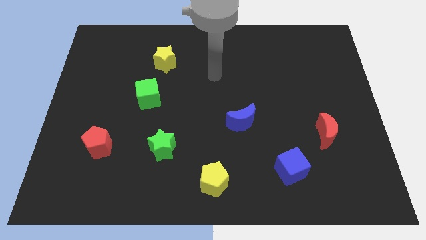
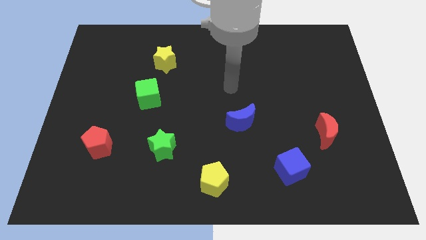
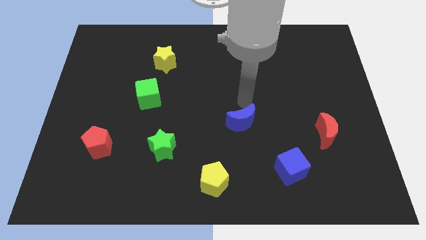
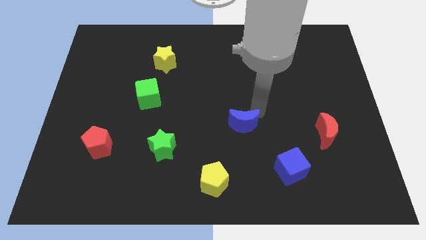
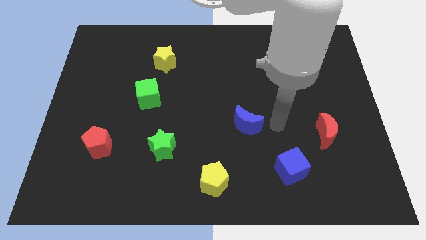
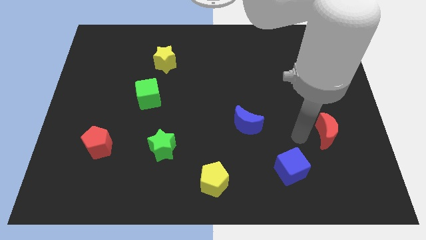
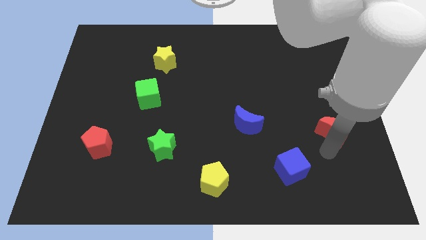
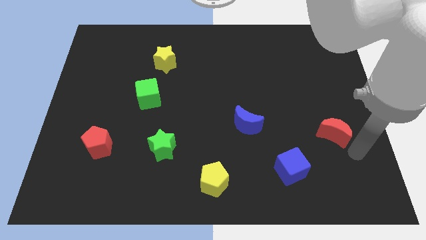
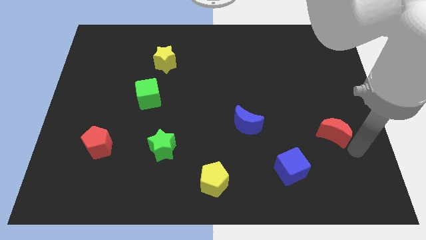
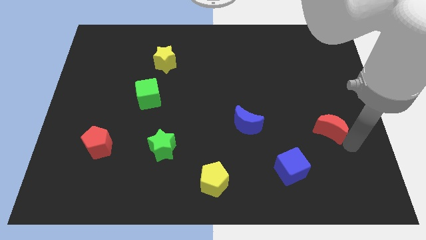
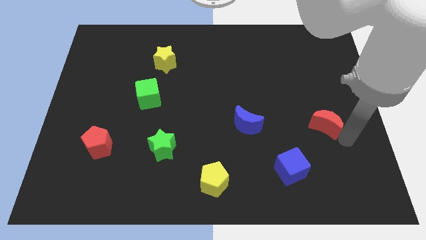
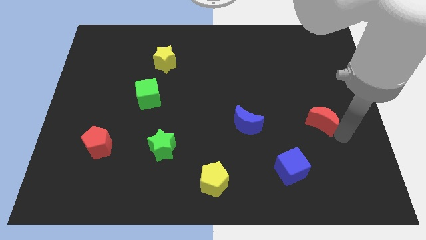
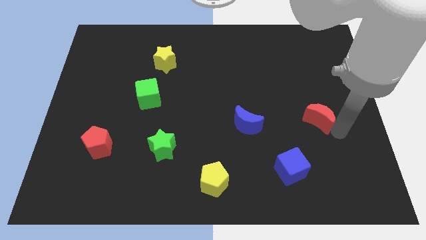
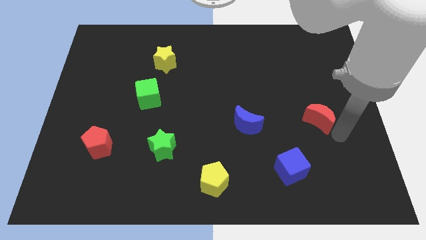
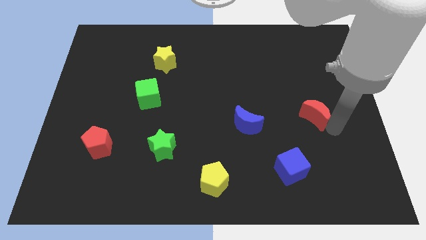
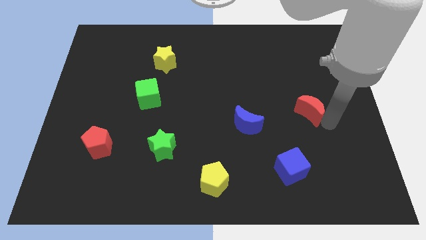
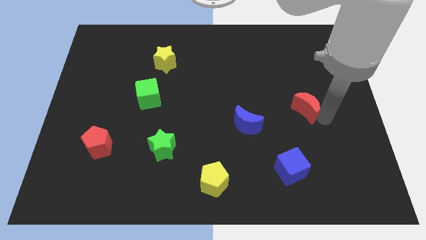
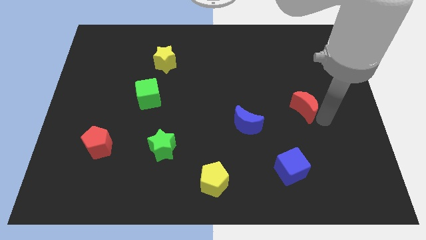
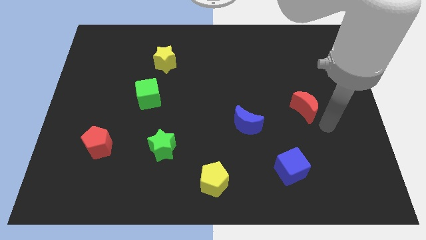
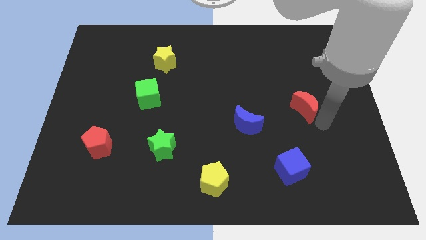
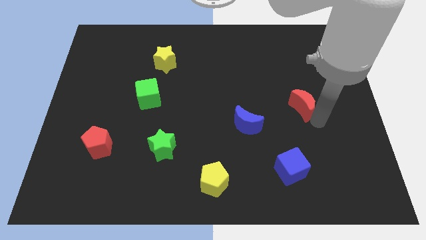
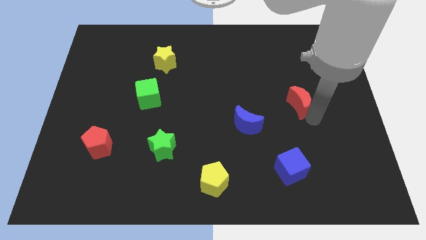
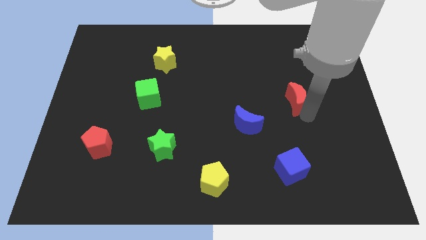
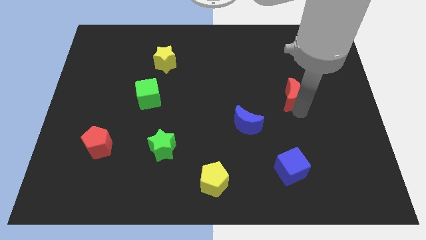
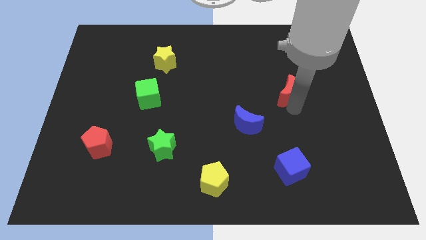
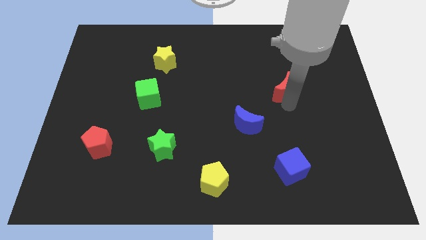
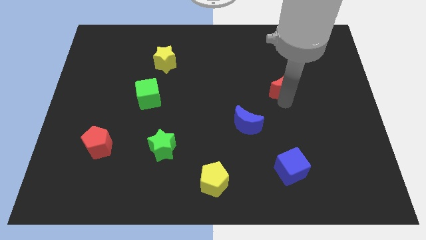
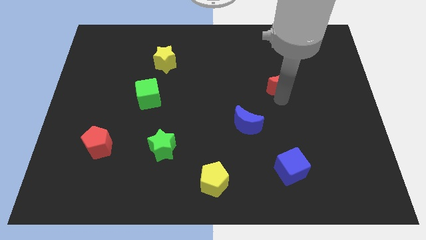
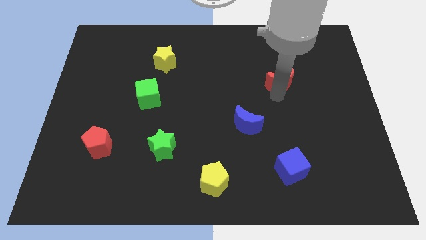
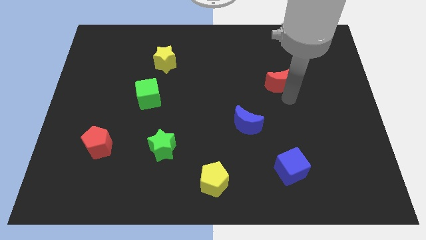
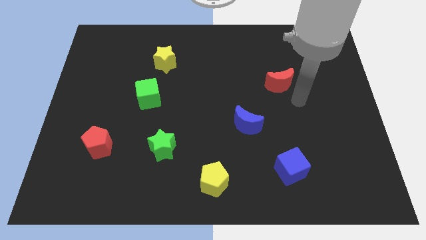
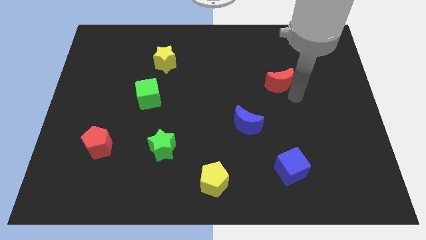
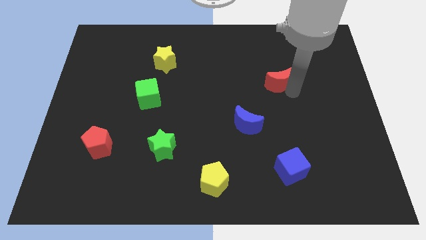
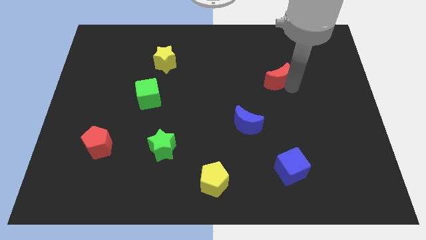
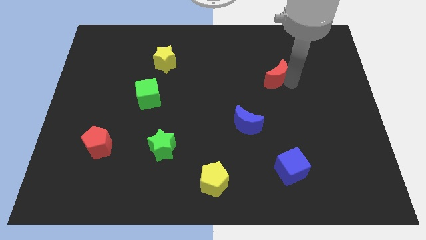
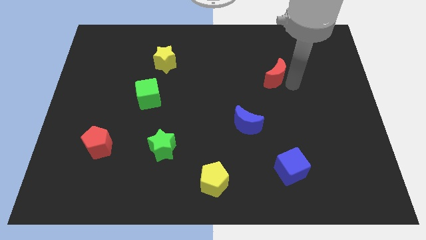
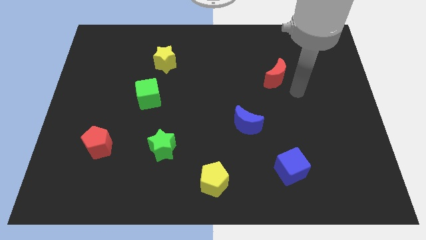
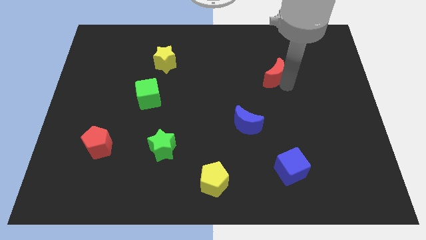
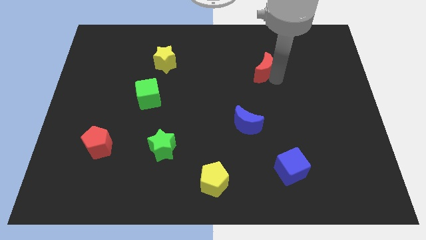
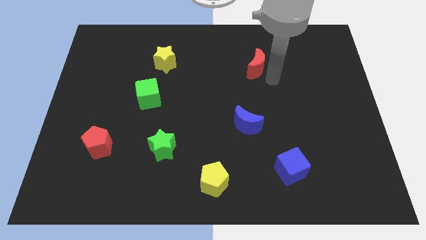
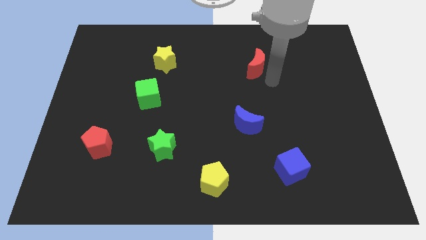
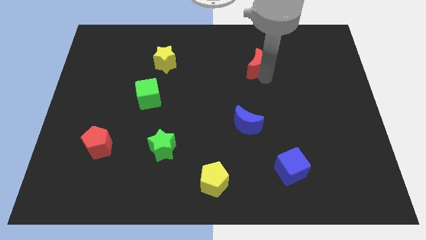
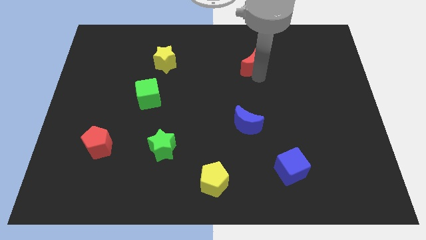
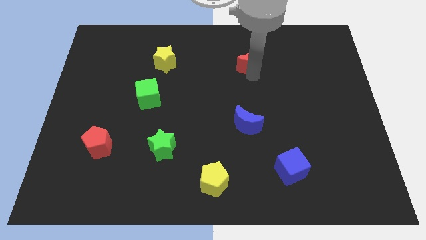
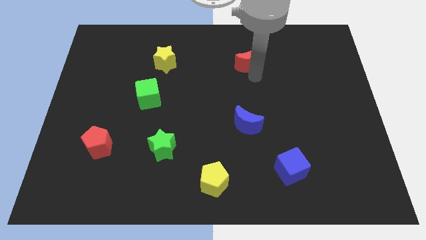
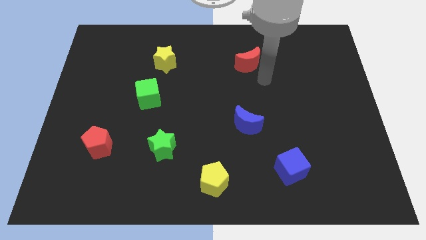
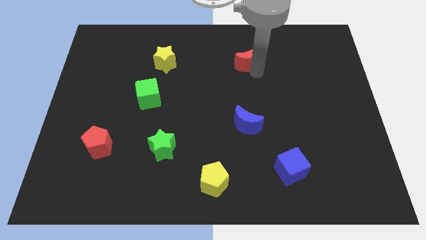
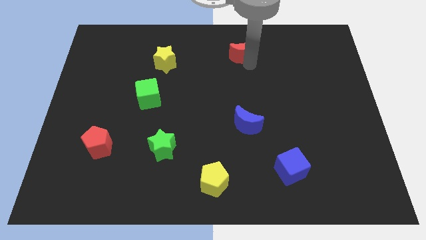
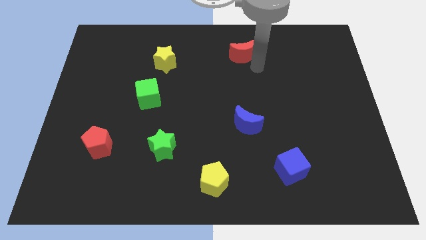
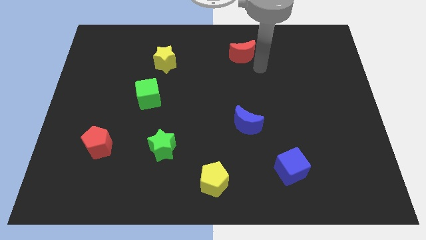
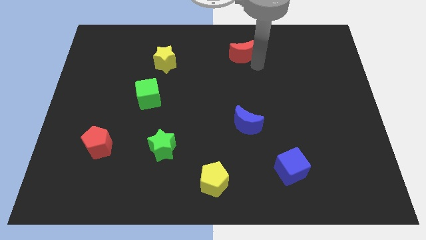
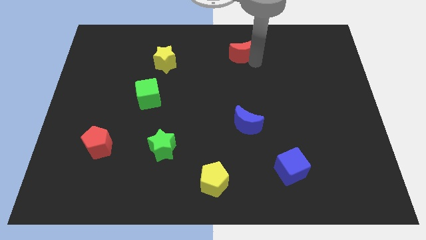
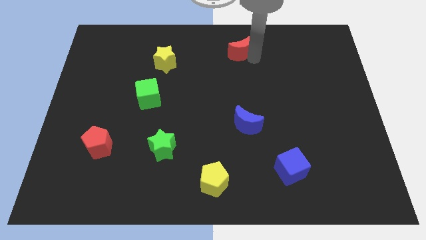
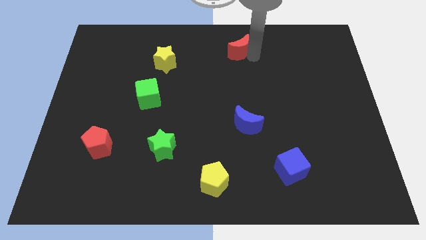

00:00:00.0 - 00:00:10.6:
put the red moon to the top side

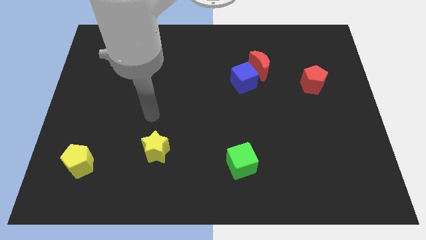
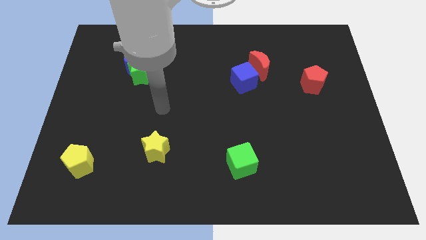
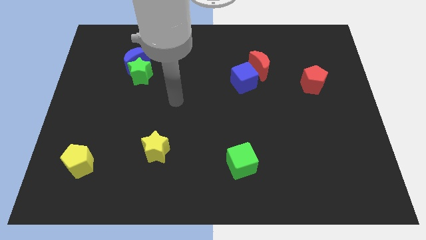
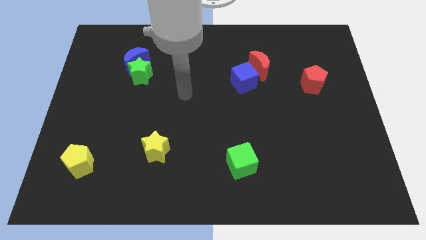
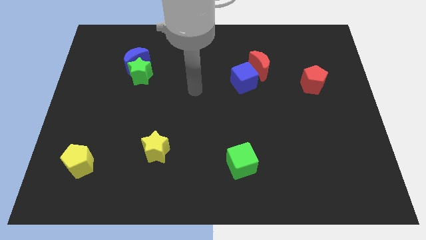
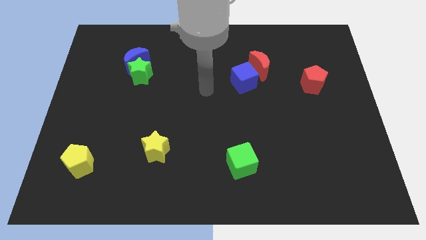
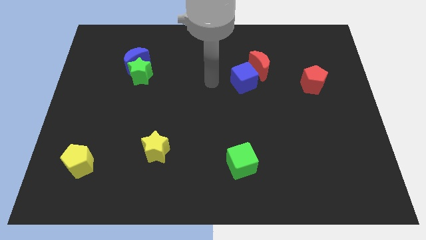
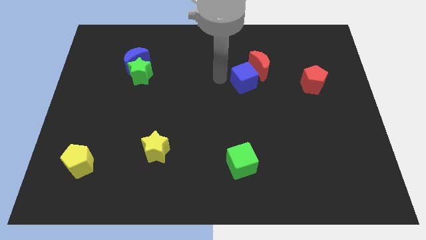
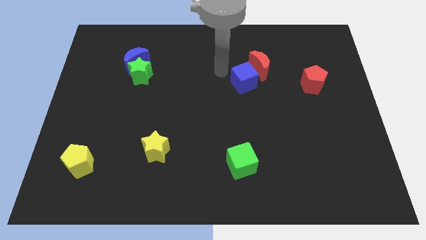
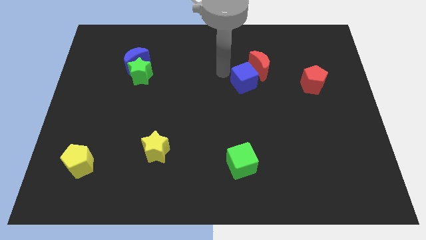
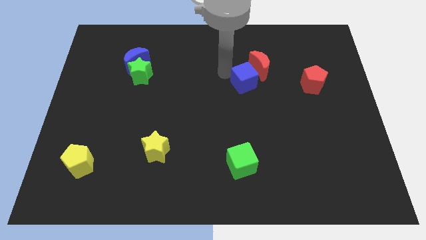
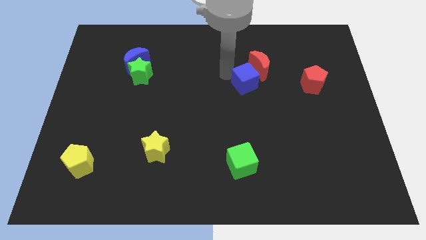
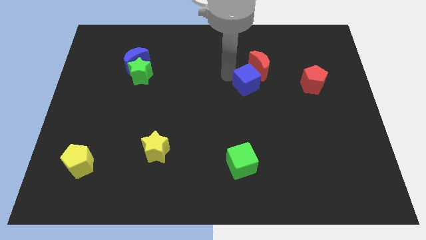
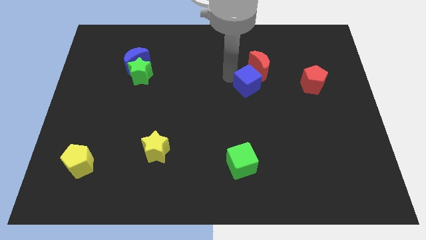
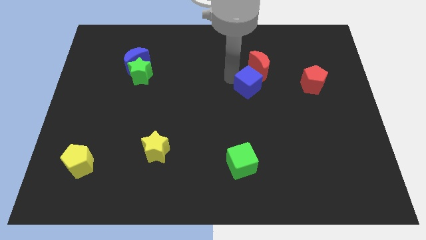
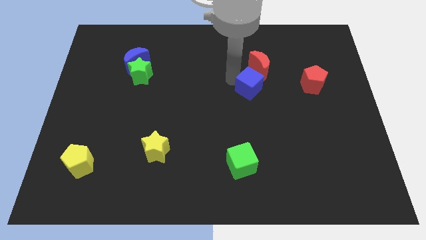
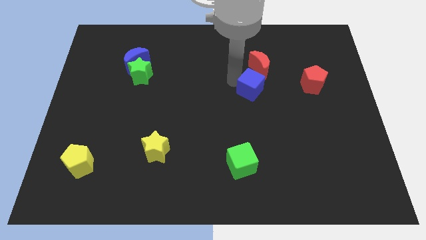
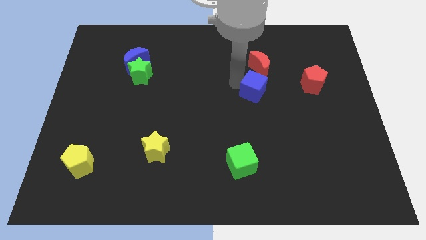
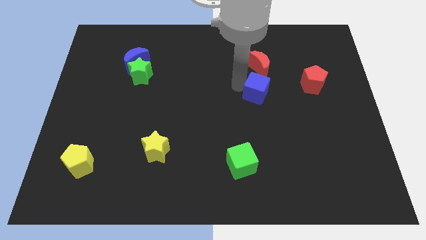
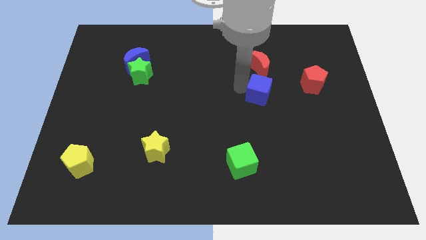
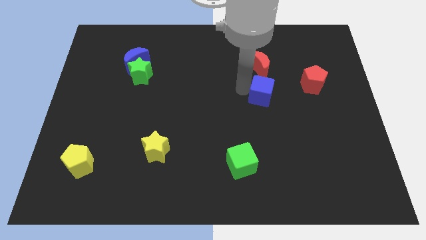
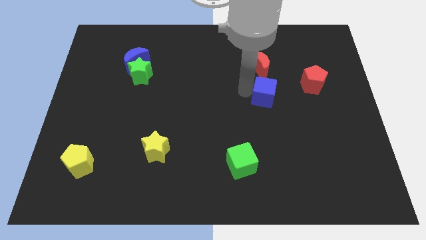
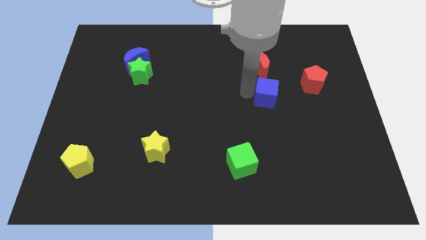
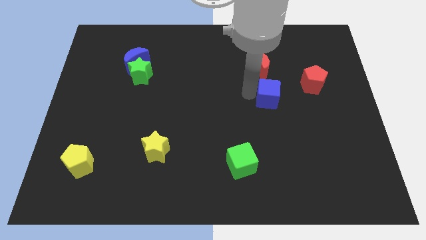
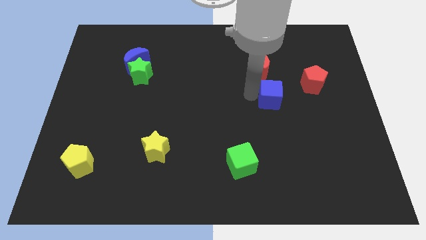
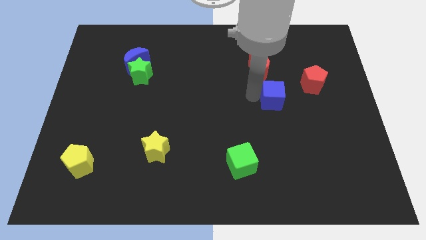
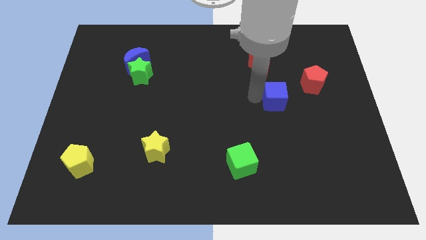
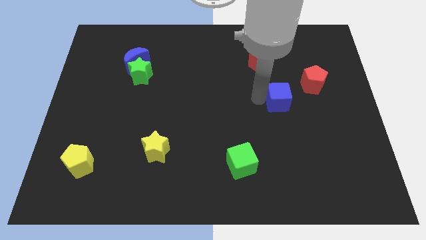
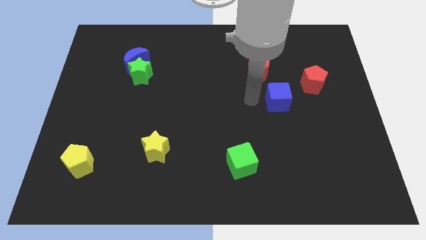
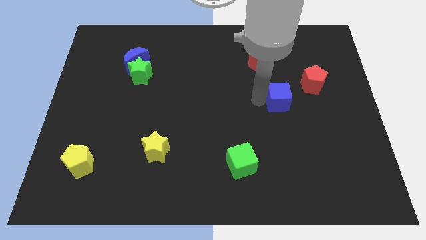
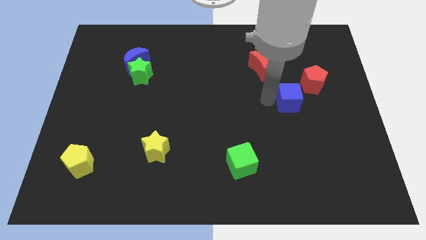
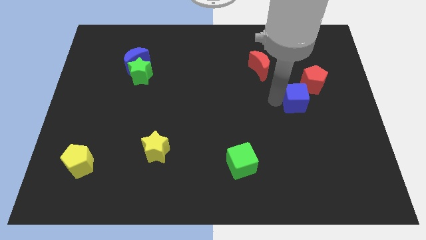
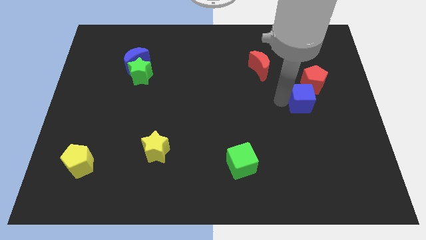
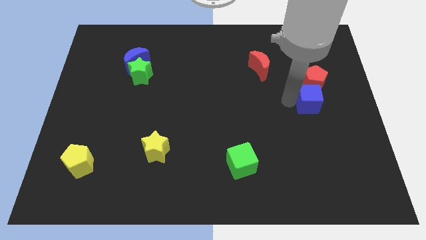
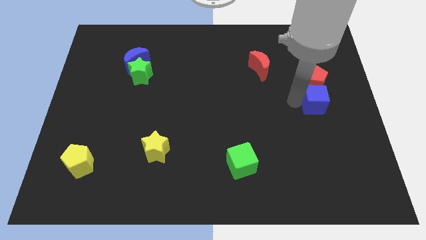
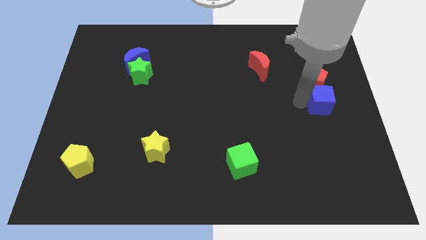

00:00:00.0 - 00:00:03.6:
slide the blue cube to the center right
